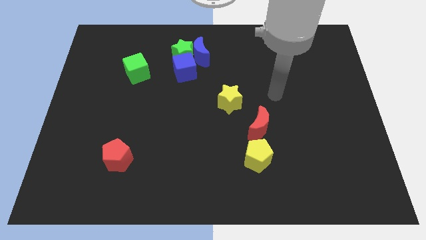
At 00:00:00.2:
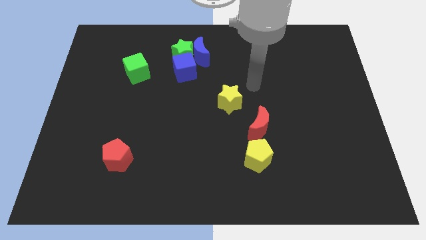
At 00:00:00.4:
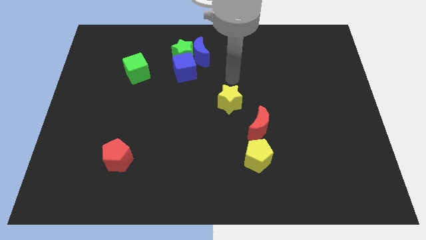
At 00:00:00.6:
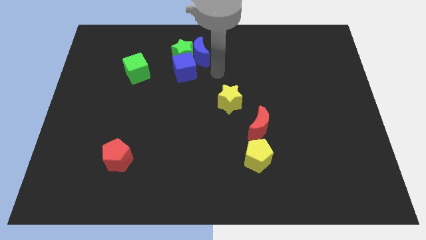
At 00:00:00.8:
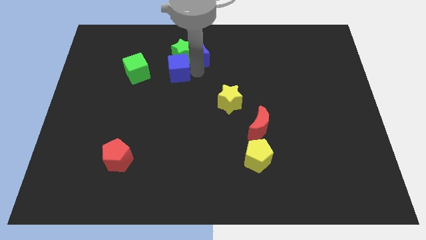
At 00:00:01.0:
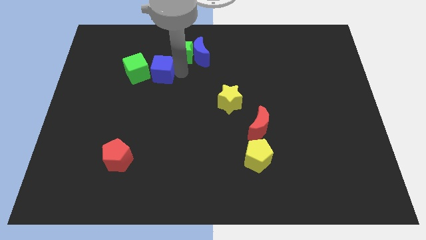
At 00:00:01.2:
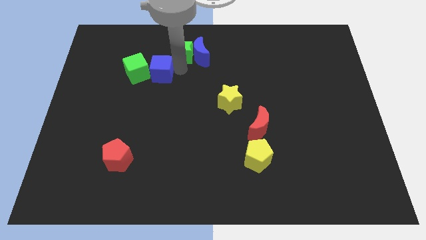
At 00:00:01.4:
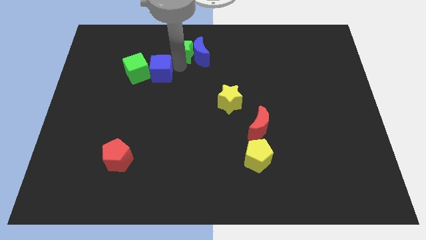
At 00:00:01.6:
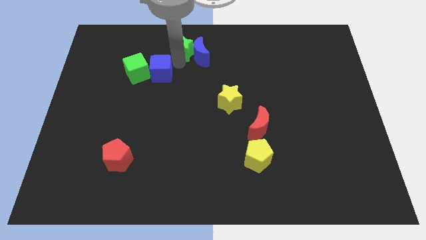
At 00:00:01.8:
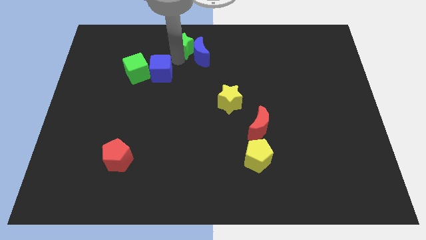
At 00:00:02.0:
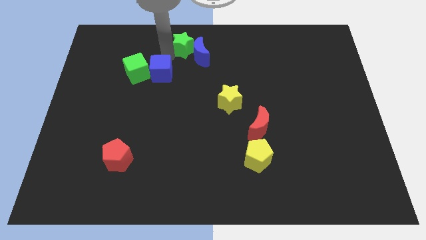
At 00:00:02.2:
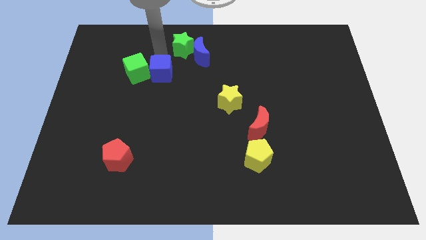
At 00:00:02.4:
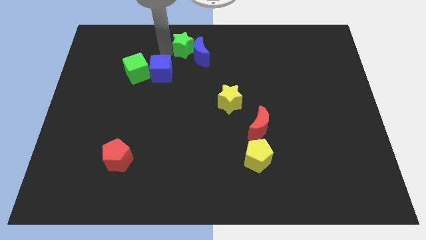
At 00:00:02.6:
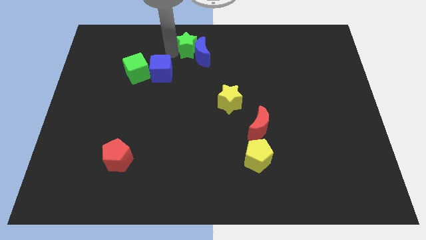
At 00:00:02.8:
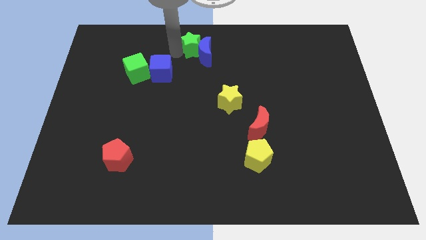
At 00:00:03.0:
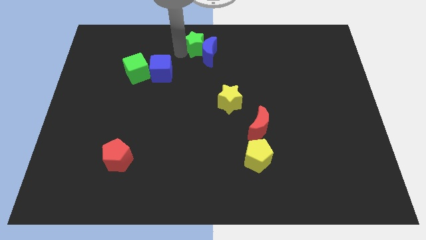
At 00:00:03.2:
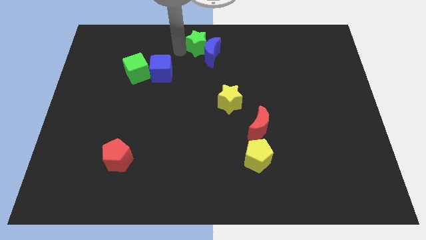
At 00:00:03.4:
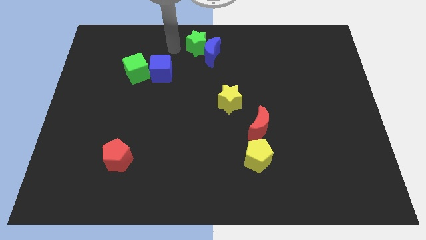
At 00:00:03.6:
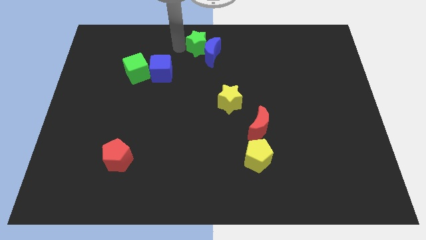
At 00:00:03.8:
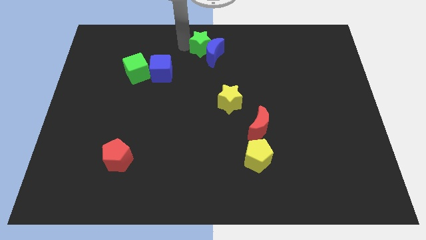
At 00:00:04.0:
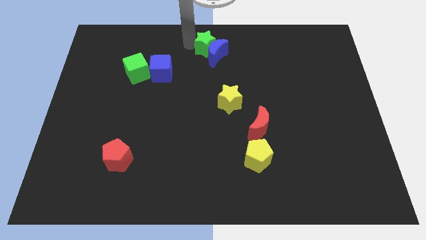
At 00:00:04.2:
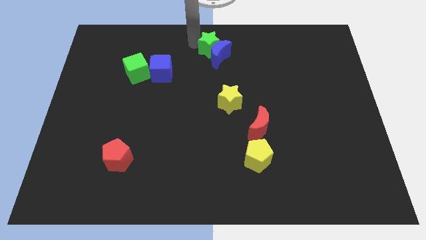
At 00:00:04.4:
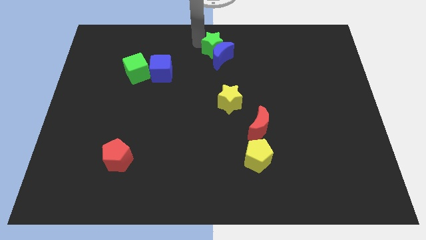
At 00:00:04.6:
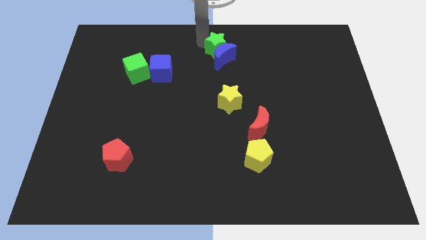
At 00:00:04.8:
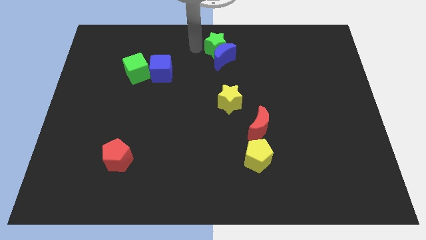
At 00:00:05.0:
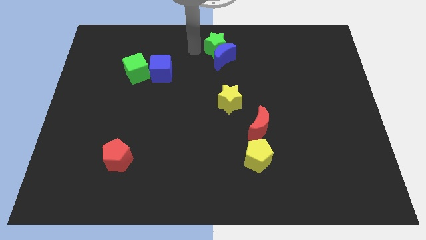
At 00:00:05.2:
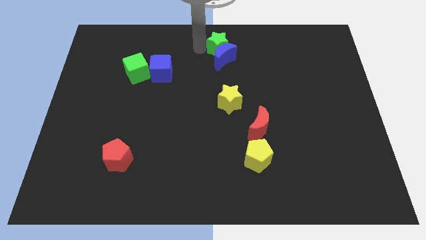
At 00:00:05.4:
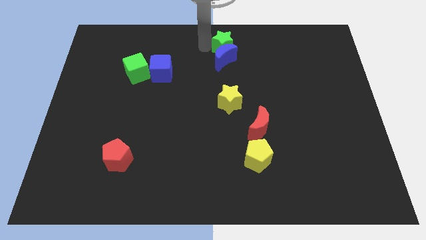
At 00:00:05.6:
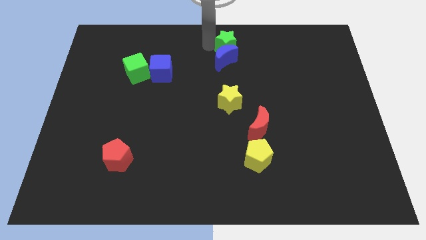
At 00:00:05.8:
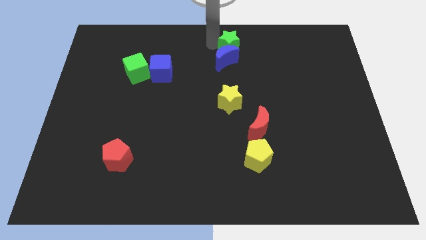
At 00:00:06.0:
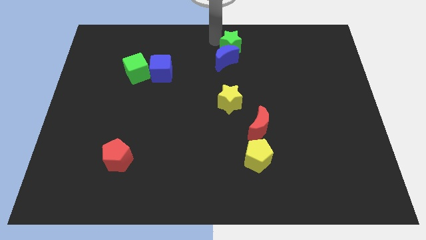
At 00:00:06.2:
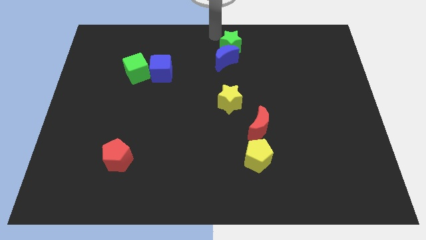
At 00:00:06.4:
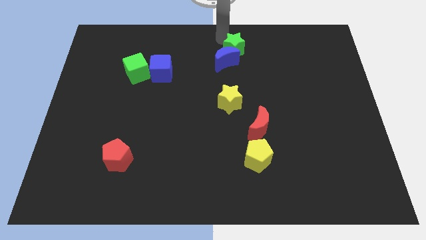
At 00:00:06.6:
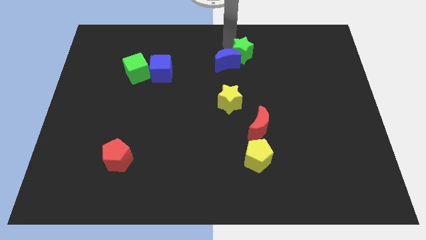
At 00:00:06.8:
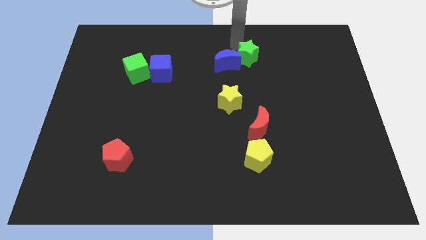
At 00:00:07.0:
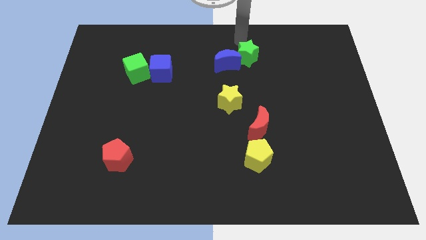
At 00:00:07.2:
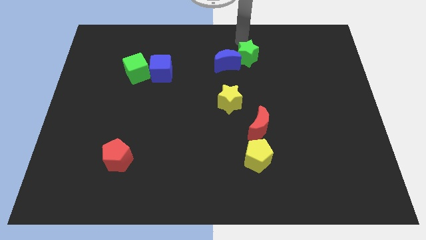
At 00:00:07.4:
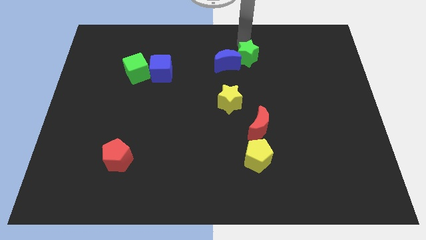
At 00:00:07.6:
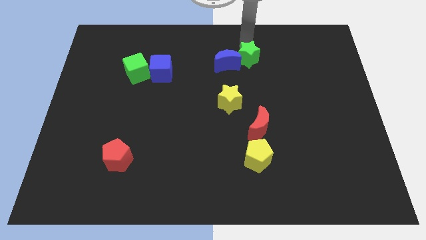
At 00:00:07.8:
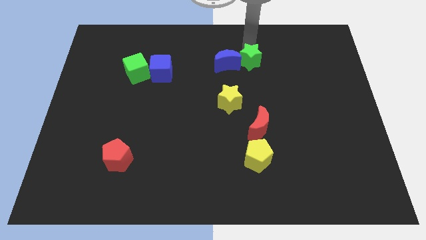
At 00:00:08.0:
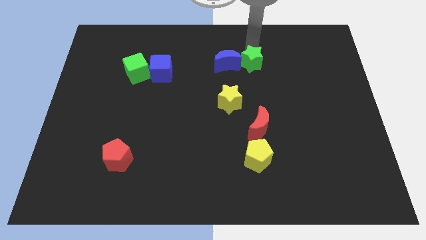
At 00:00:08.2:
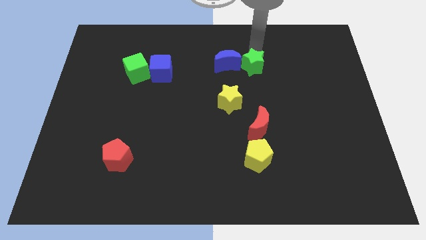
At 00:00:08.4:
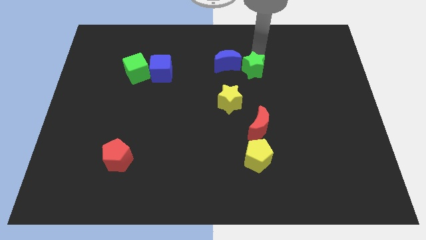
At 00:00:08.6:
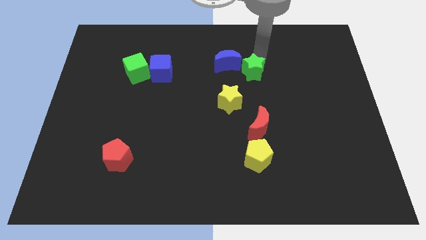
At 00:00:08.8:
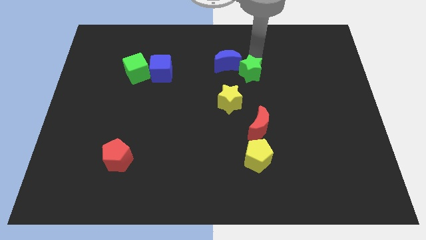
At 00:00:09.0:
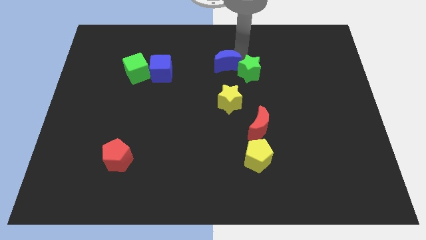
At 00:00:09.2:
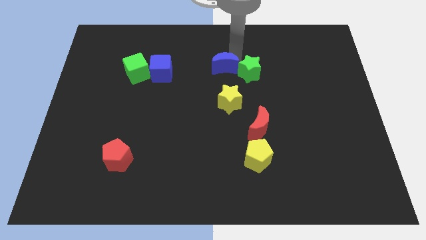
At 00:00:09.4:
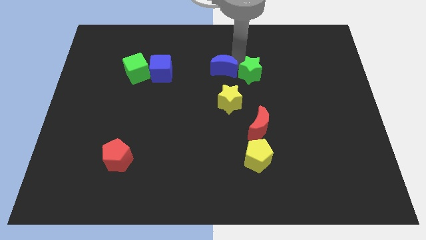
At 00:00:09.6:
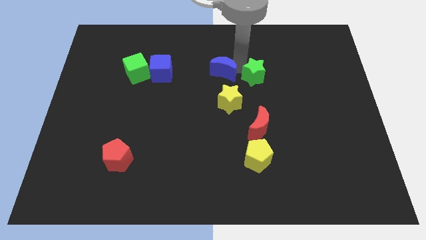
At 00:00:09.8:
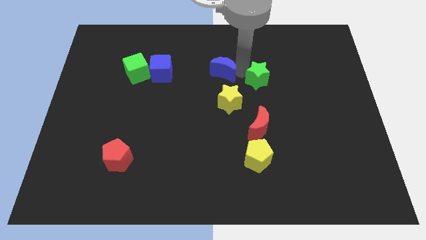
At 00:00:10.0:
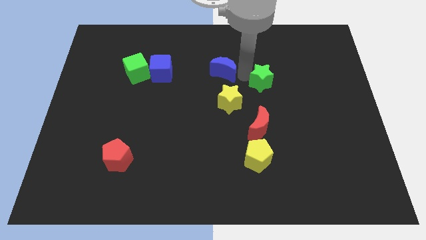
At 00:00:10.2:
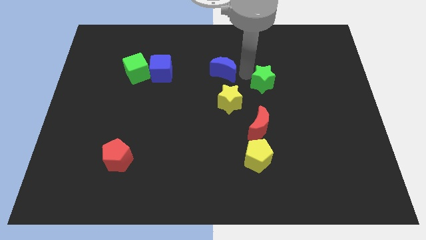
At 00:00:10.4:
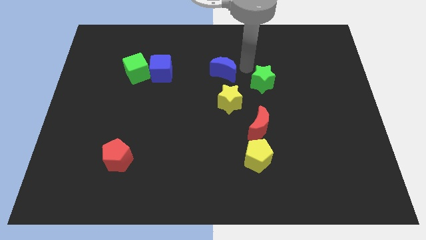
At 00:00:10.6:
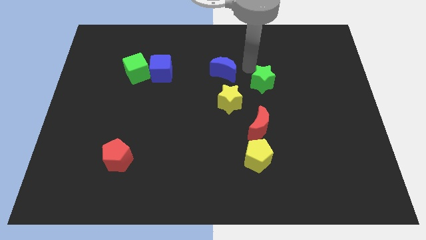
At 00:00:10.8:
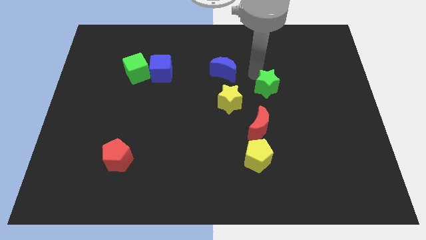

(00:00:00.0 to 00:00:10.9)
move the green star to the right of the yellow star

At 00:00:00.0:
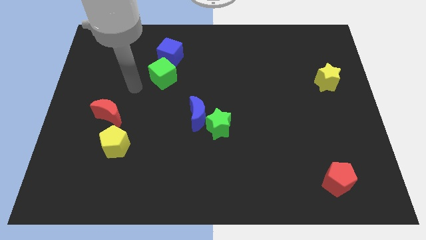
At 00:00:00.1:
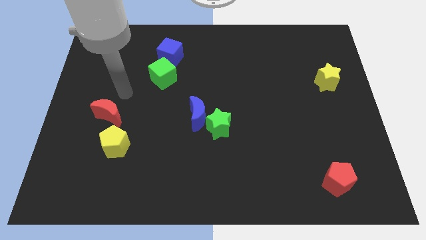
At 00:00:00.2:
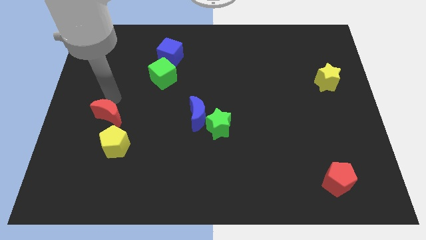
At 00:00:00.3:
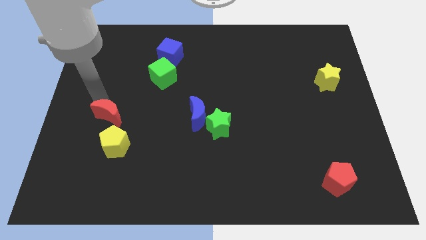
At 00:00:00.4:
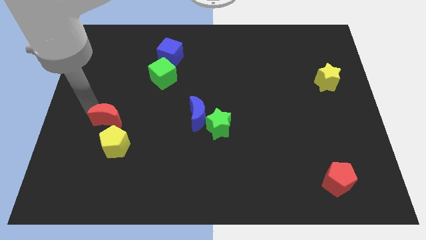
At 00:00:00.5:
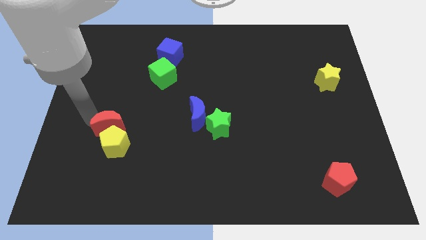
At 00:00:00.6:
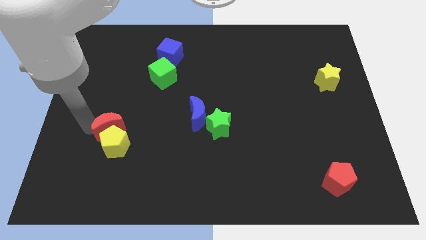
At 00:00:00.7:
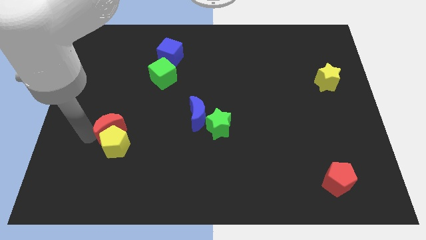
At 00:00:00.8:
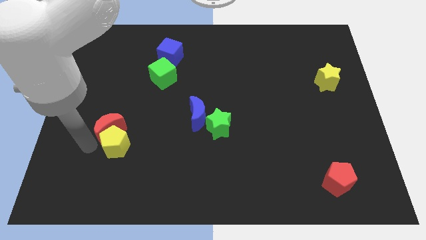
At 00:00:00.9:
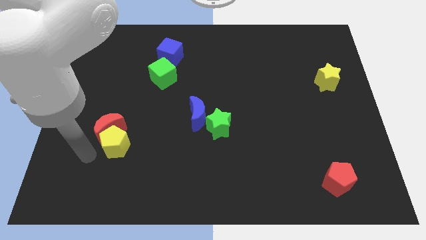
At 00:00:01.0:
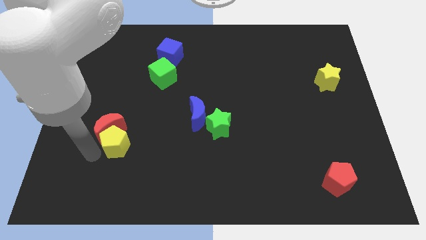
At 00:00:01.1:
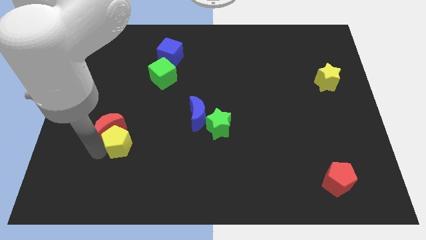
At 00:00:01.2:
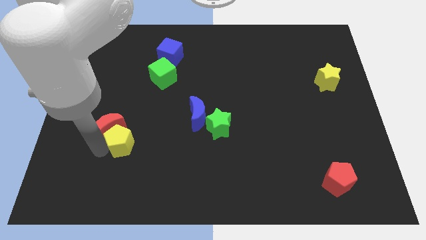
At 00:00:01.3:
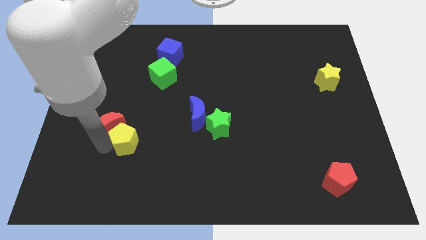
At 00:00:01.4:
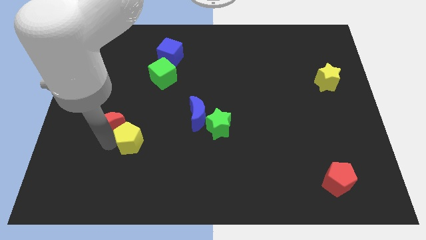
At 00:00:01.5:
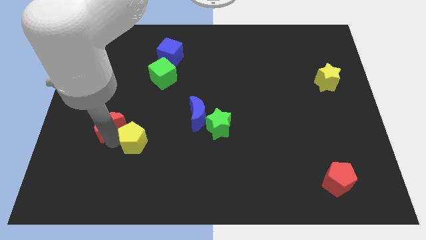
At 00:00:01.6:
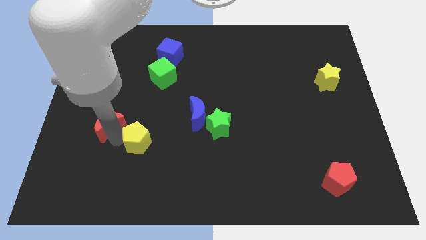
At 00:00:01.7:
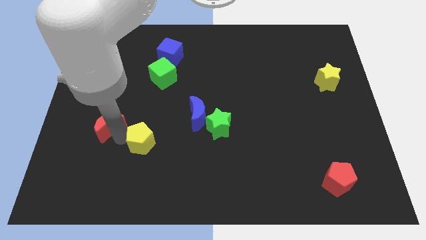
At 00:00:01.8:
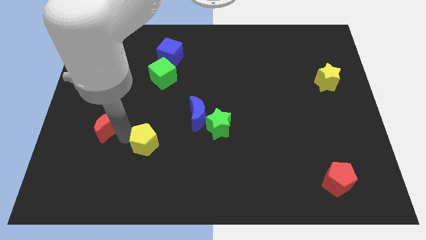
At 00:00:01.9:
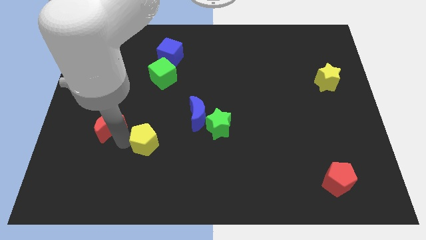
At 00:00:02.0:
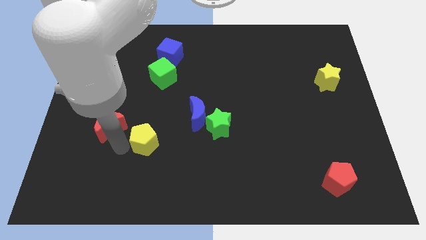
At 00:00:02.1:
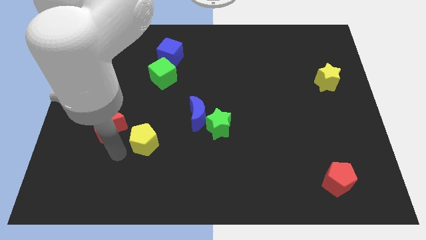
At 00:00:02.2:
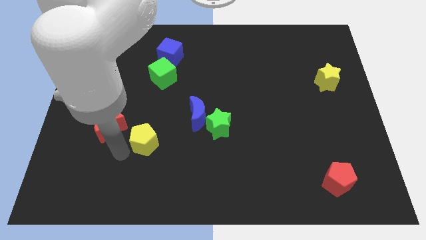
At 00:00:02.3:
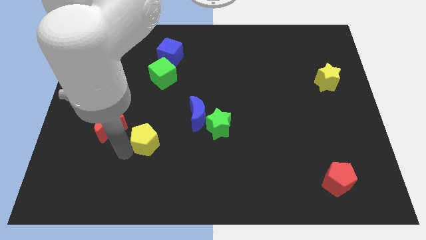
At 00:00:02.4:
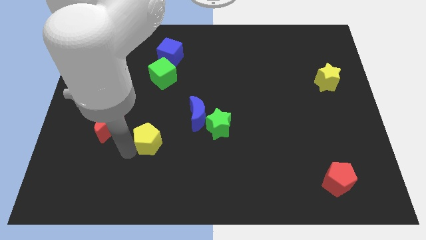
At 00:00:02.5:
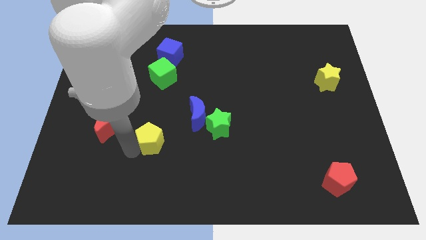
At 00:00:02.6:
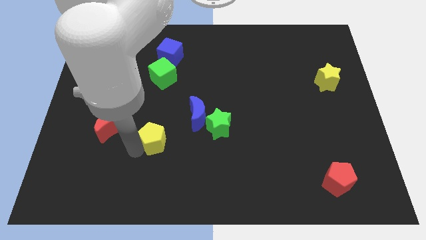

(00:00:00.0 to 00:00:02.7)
put the yellow pentagon to the left side of the green star
